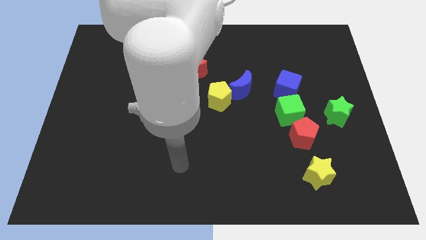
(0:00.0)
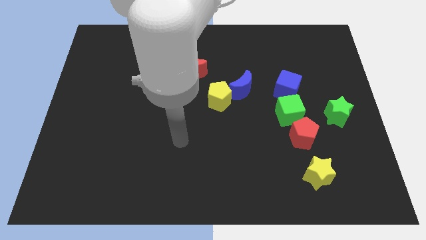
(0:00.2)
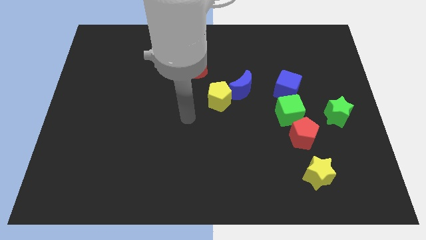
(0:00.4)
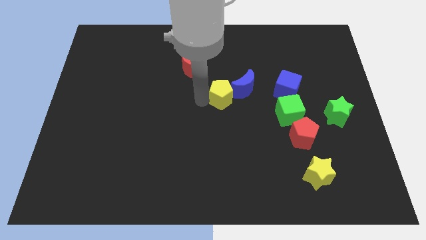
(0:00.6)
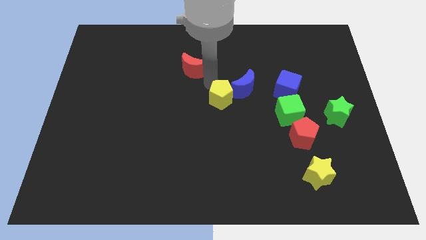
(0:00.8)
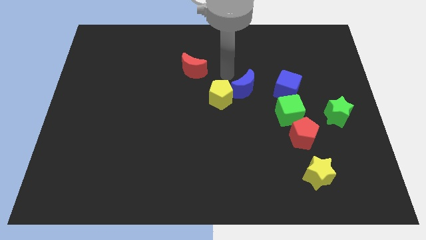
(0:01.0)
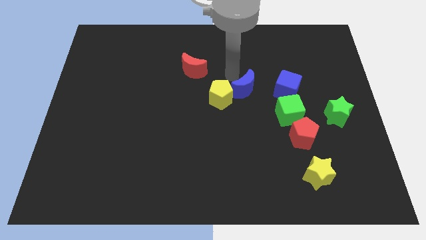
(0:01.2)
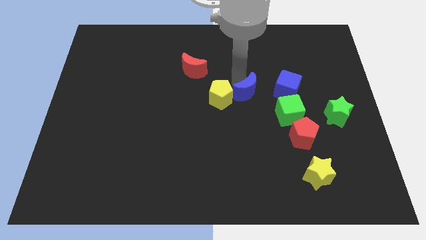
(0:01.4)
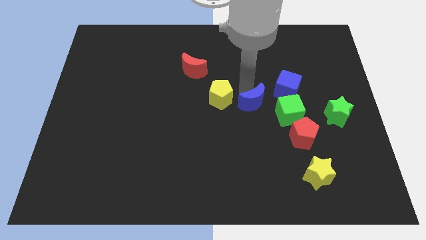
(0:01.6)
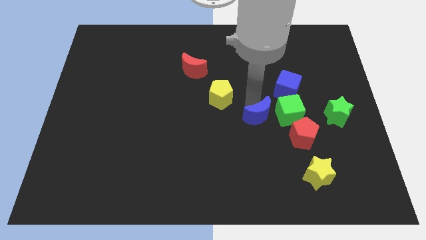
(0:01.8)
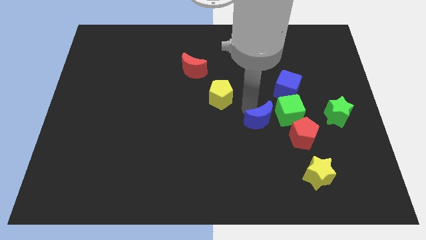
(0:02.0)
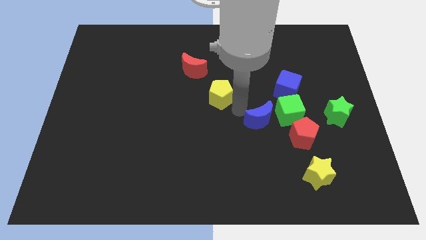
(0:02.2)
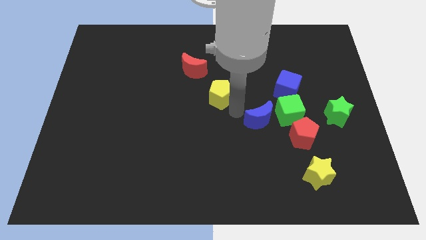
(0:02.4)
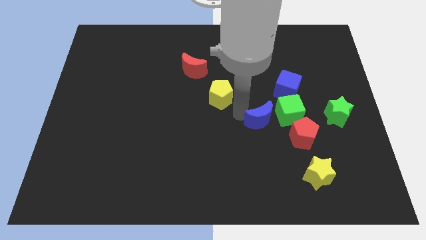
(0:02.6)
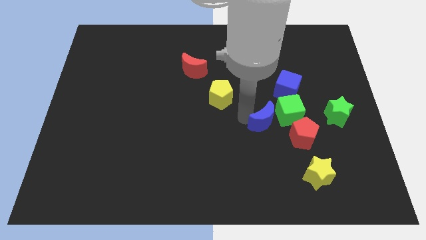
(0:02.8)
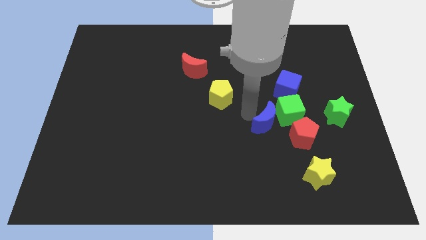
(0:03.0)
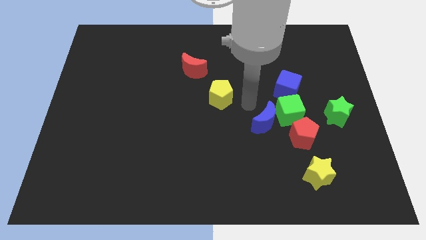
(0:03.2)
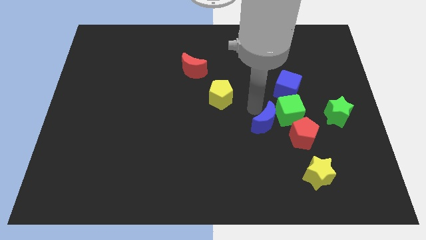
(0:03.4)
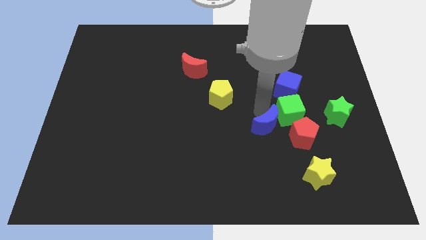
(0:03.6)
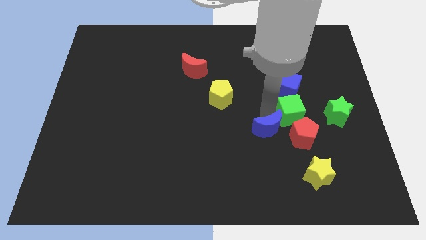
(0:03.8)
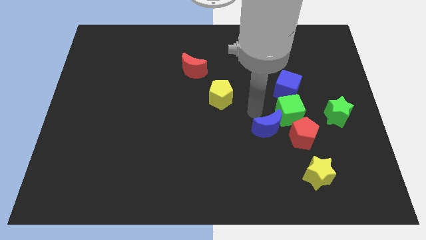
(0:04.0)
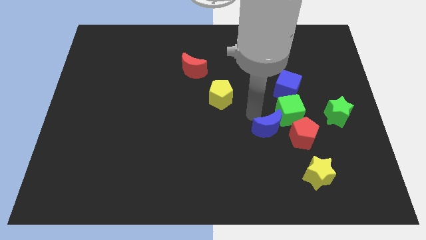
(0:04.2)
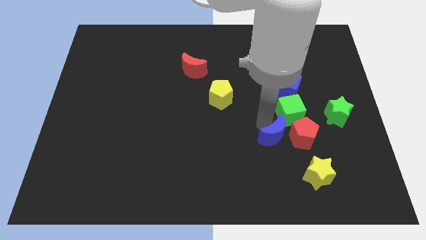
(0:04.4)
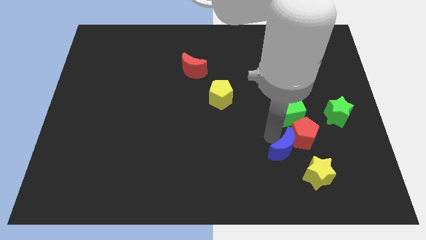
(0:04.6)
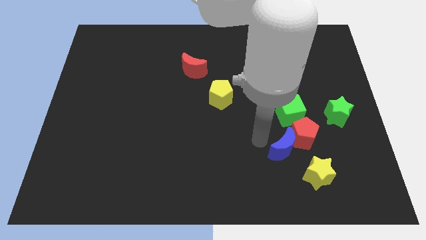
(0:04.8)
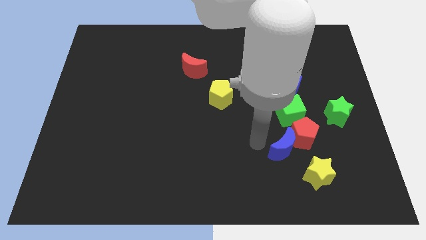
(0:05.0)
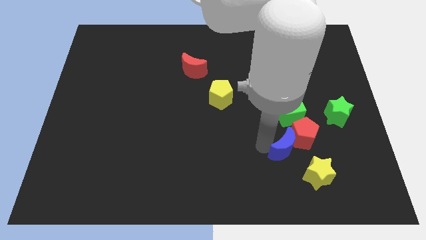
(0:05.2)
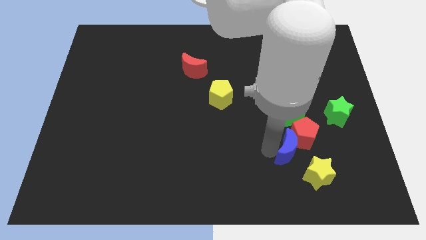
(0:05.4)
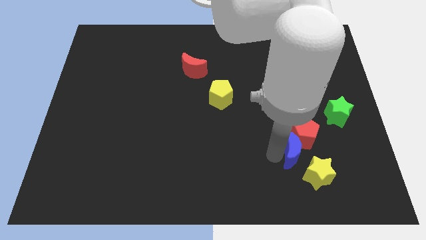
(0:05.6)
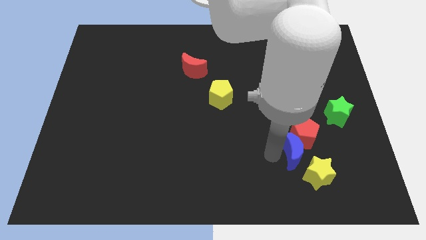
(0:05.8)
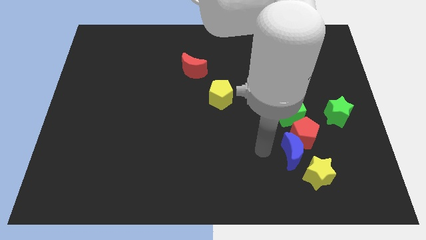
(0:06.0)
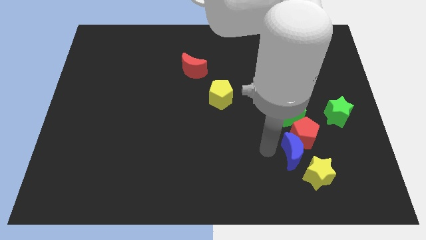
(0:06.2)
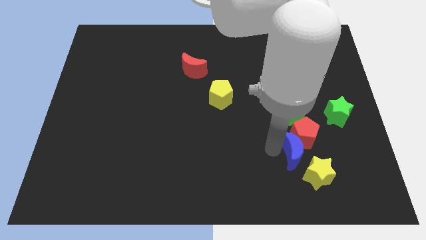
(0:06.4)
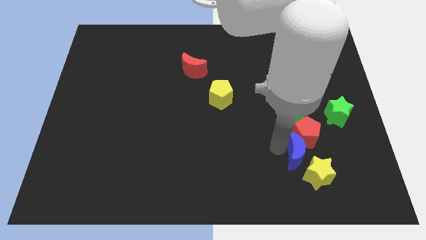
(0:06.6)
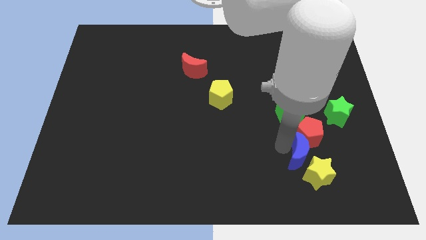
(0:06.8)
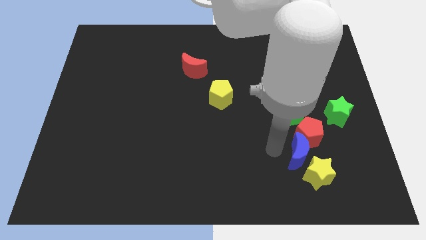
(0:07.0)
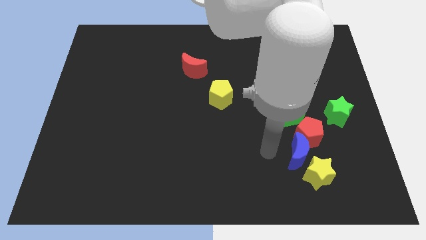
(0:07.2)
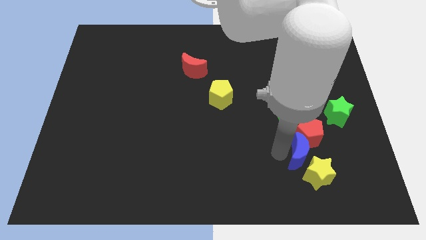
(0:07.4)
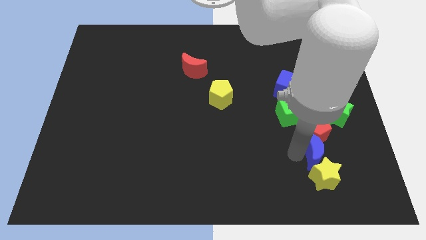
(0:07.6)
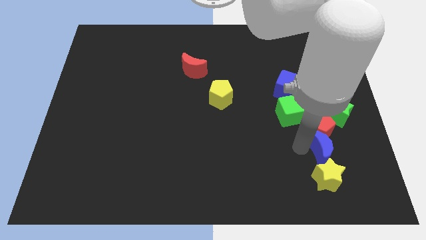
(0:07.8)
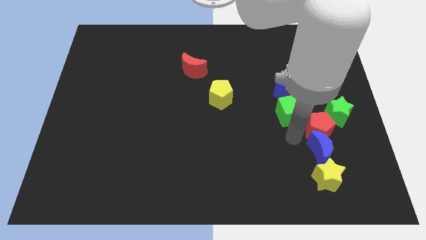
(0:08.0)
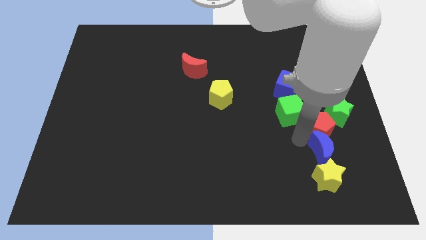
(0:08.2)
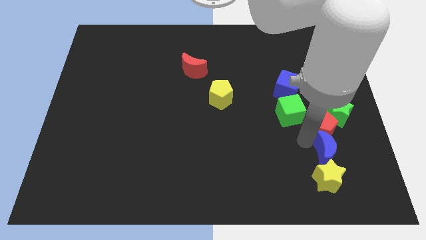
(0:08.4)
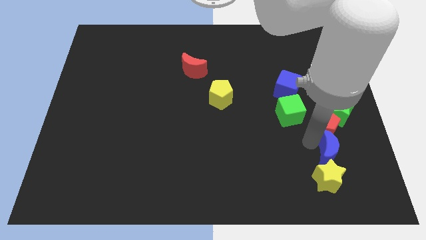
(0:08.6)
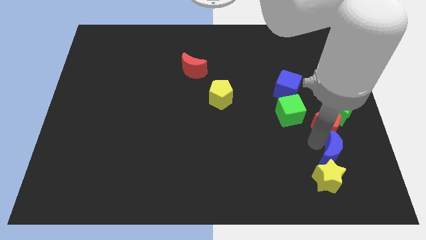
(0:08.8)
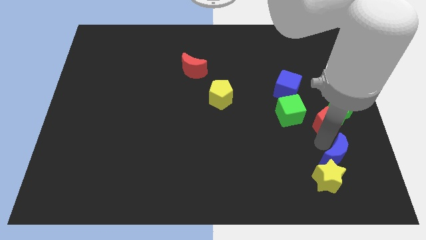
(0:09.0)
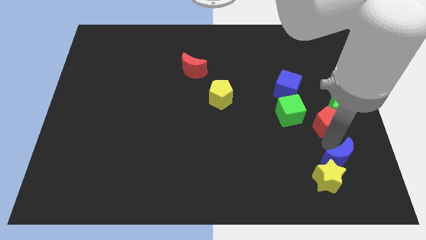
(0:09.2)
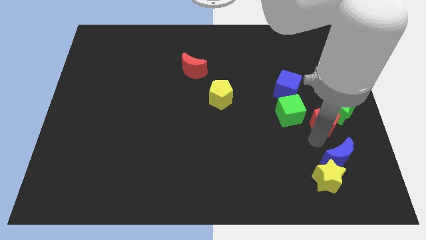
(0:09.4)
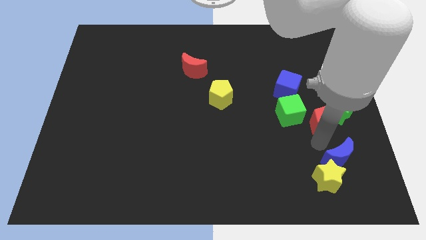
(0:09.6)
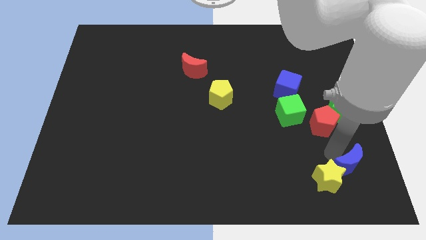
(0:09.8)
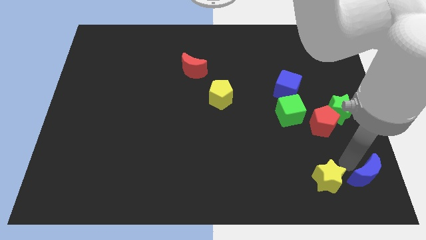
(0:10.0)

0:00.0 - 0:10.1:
put the blue moon to the bottom right corner
